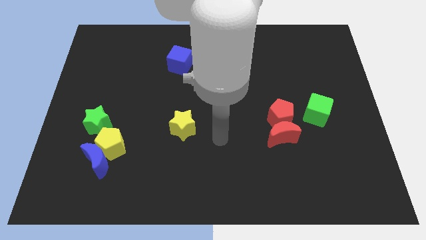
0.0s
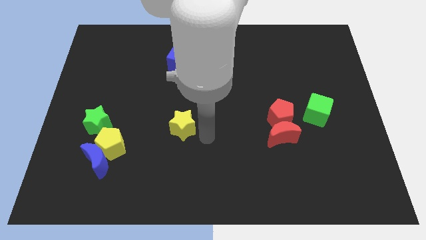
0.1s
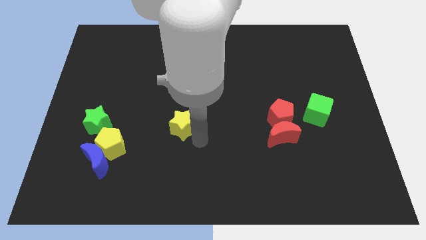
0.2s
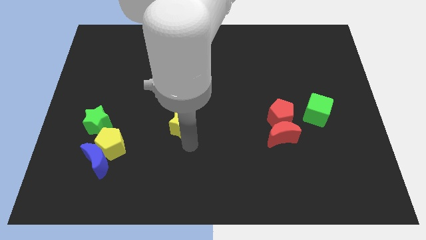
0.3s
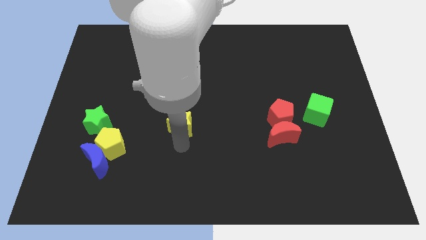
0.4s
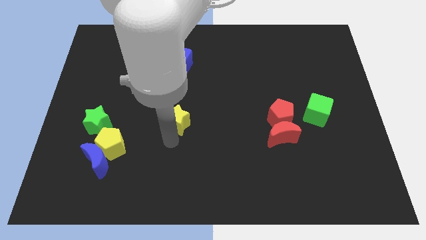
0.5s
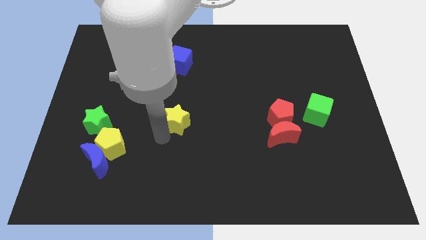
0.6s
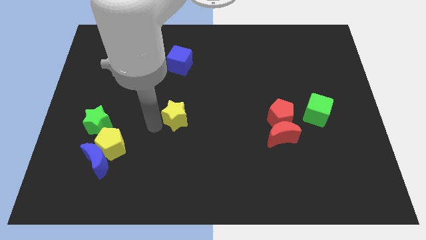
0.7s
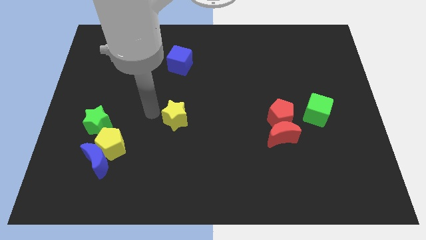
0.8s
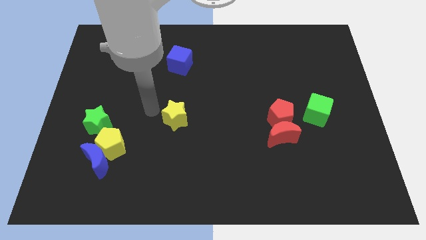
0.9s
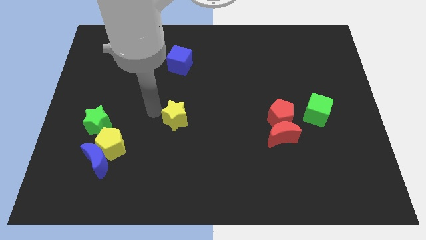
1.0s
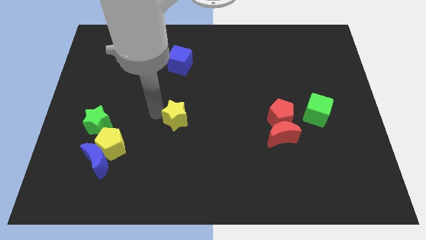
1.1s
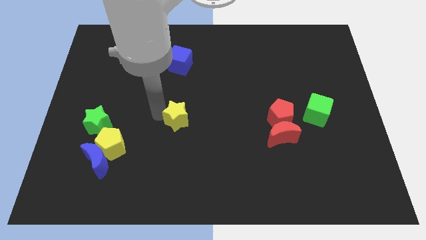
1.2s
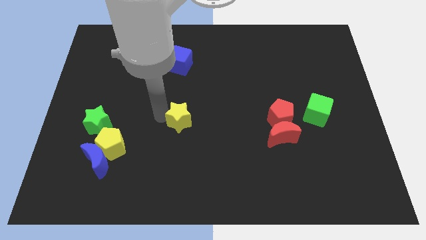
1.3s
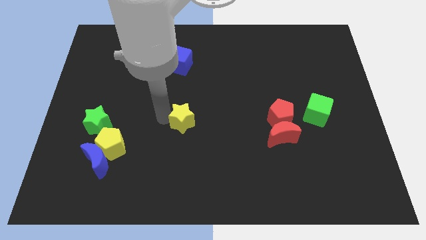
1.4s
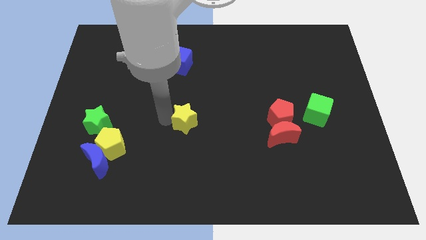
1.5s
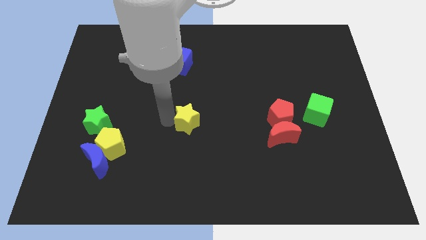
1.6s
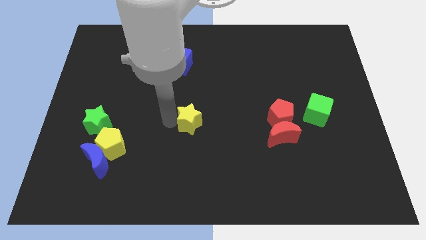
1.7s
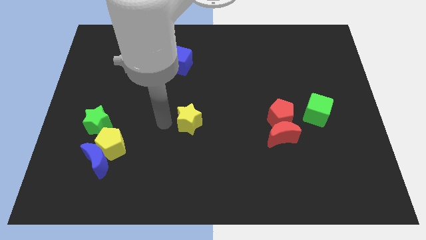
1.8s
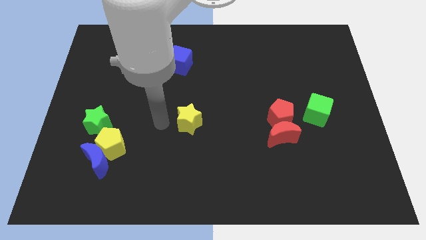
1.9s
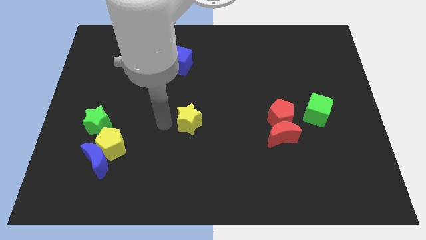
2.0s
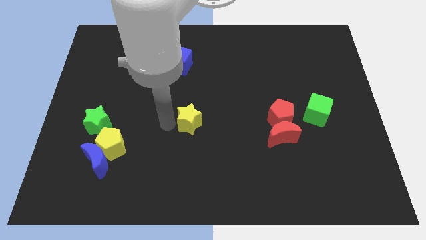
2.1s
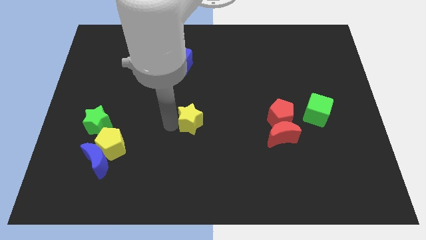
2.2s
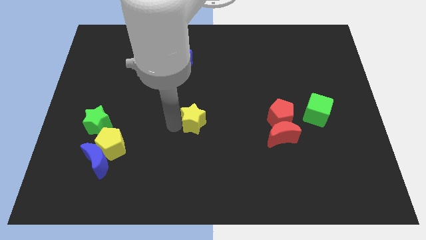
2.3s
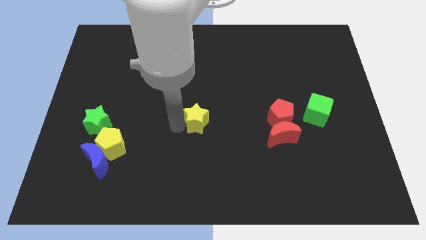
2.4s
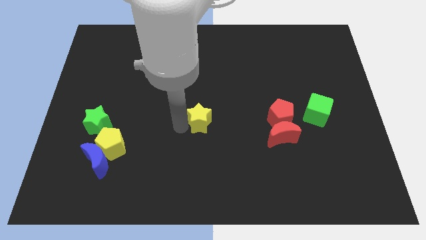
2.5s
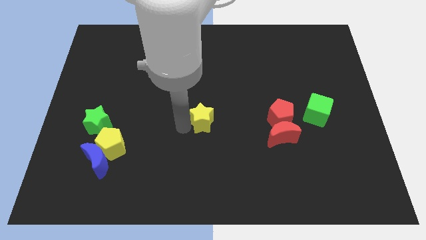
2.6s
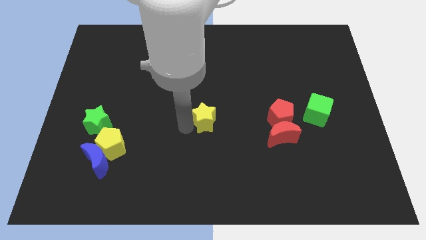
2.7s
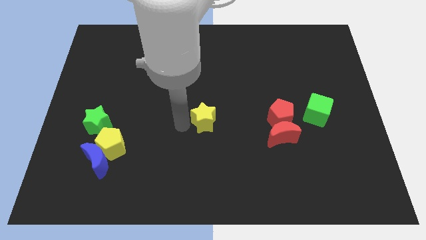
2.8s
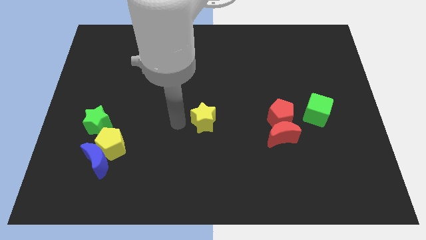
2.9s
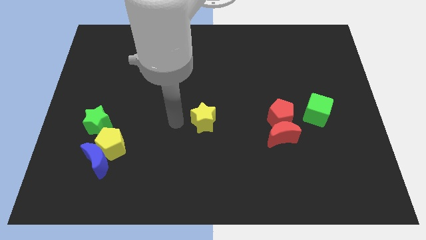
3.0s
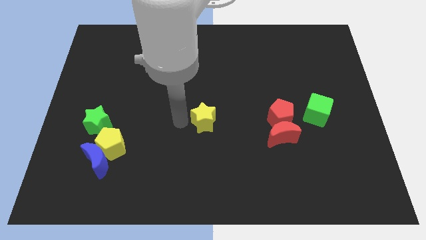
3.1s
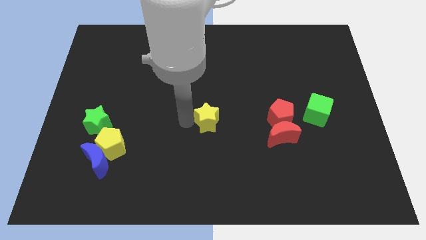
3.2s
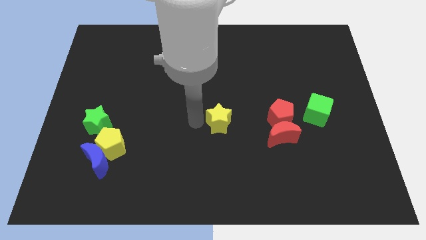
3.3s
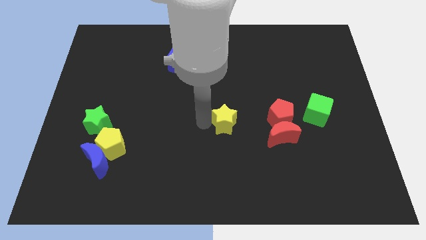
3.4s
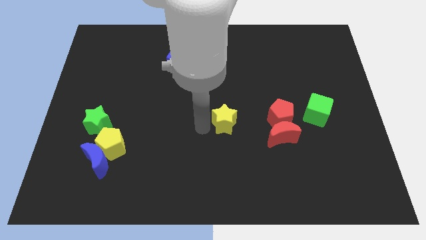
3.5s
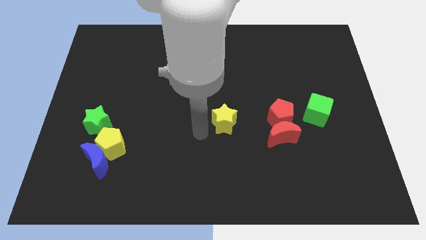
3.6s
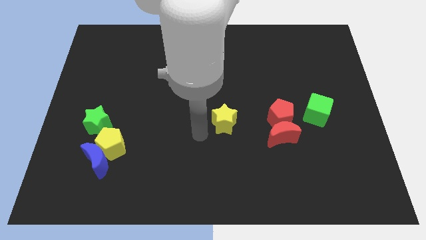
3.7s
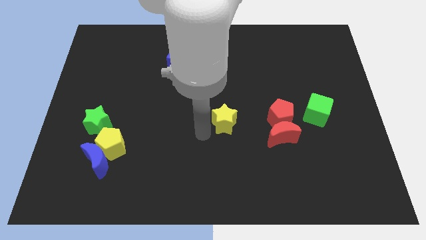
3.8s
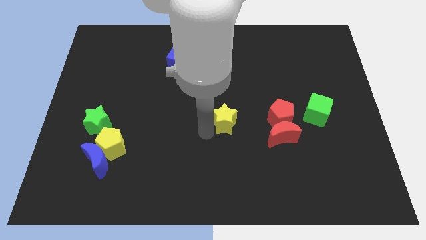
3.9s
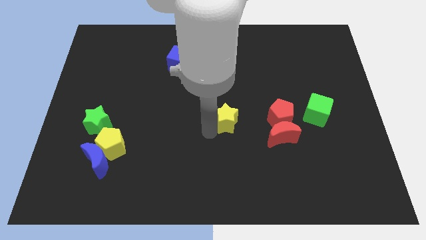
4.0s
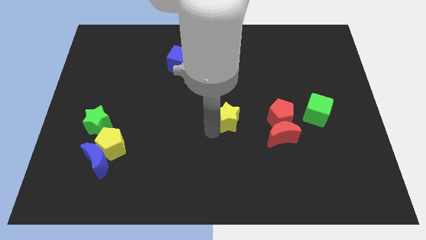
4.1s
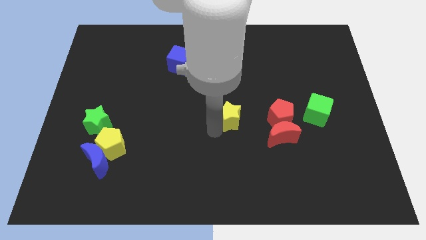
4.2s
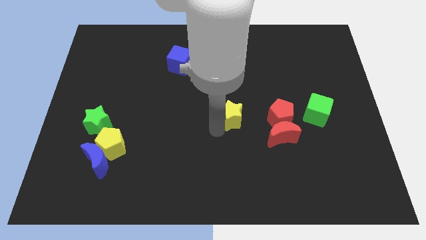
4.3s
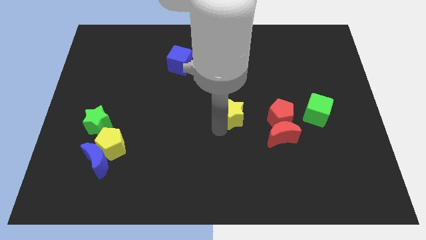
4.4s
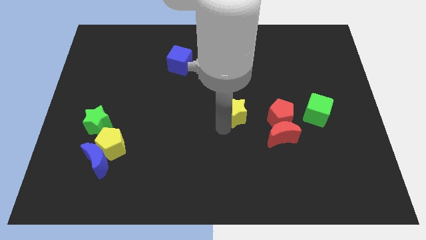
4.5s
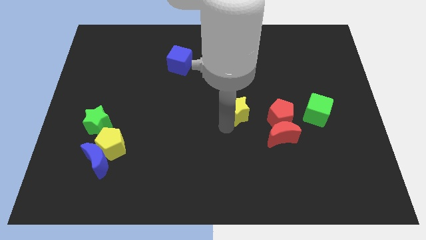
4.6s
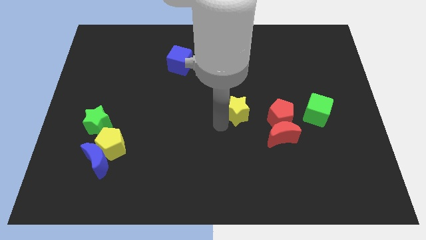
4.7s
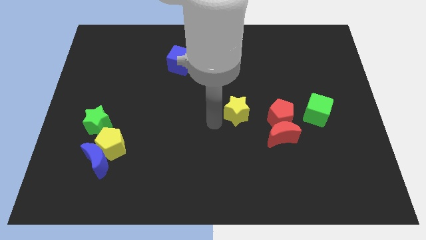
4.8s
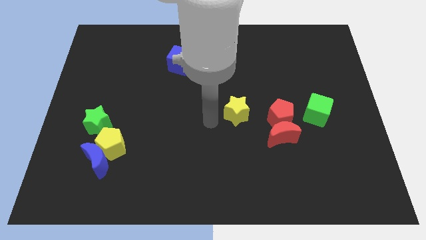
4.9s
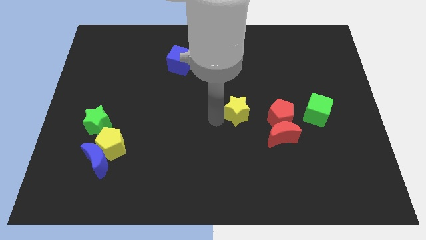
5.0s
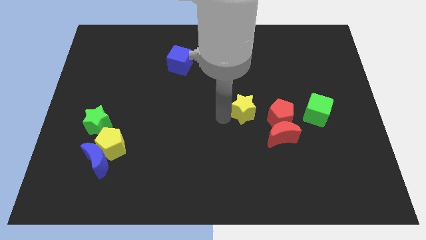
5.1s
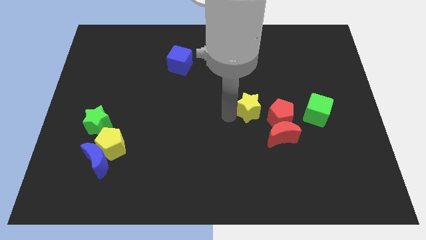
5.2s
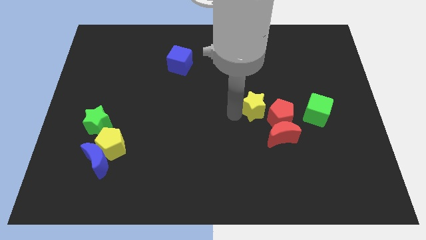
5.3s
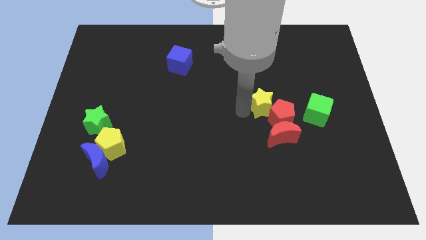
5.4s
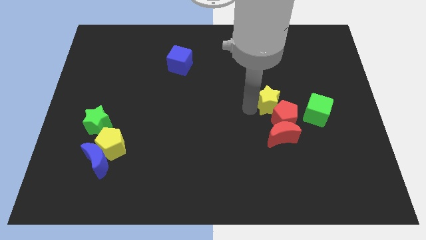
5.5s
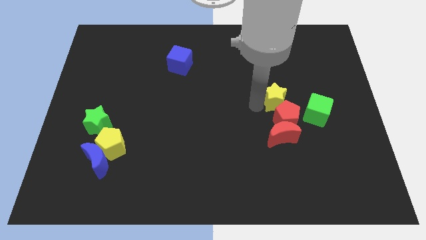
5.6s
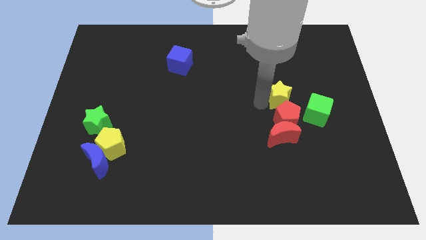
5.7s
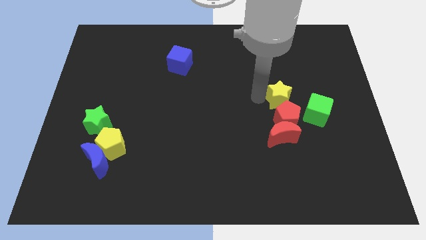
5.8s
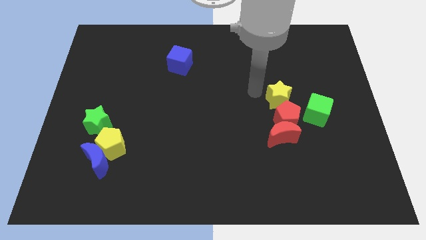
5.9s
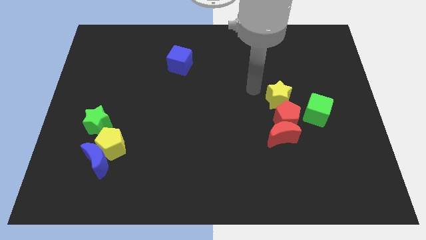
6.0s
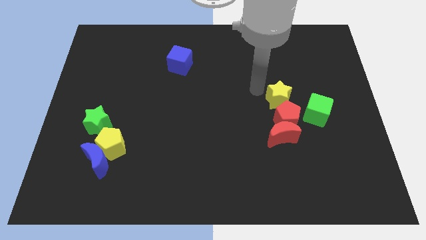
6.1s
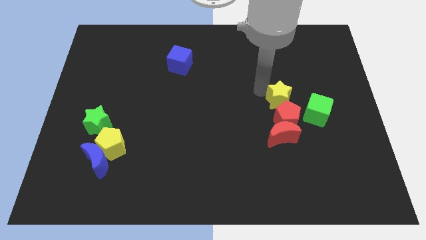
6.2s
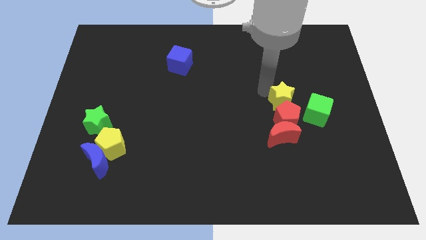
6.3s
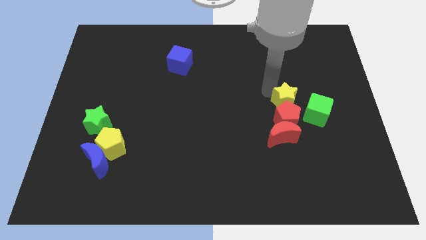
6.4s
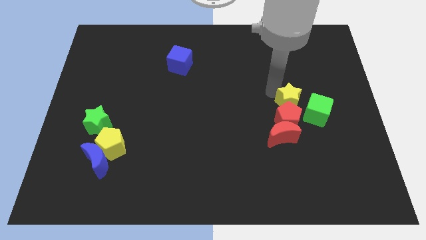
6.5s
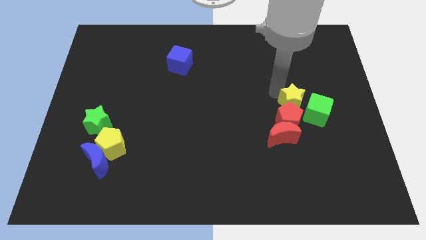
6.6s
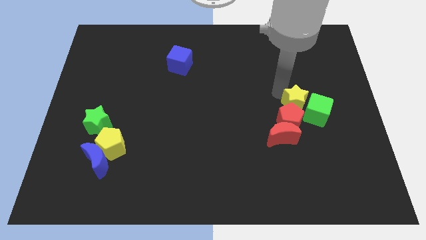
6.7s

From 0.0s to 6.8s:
move the yellow star towards the green cube

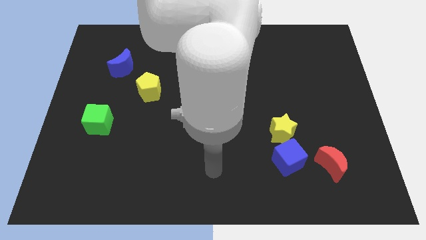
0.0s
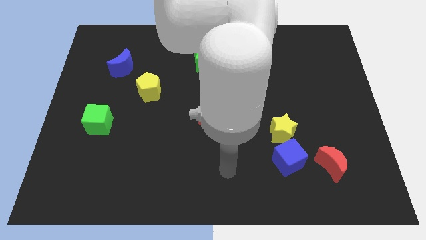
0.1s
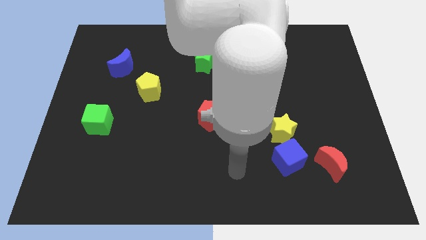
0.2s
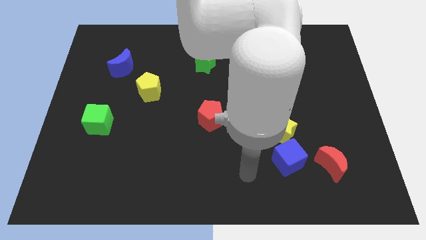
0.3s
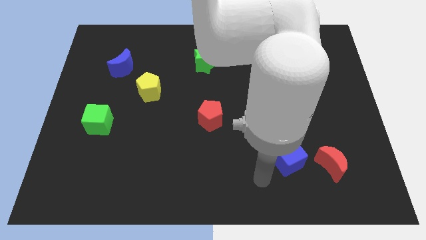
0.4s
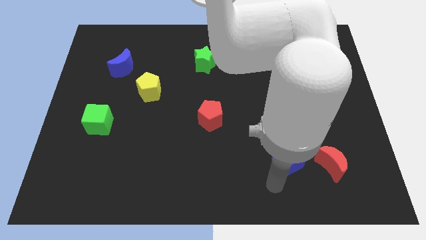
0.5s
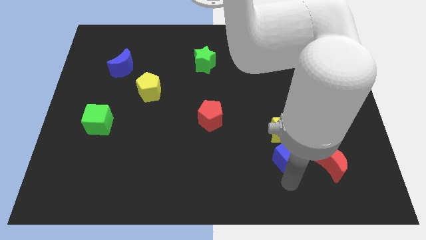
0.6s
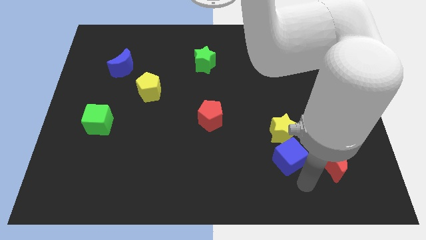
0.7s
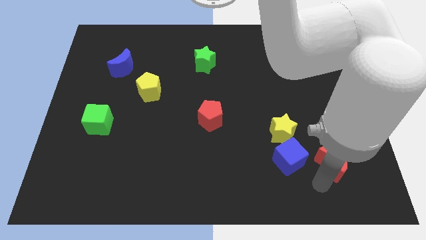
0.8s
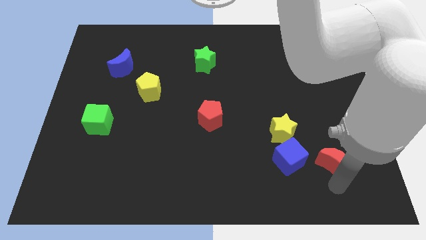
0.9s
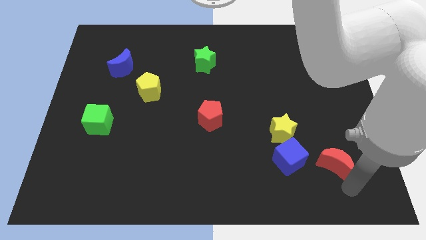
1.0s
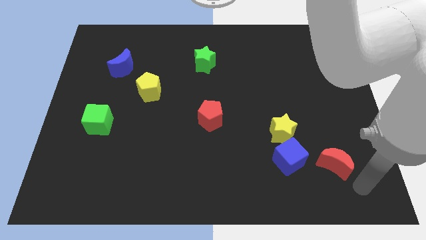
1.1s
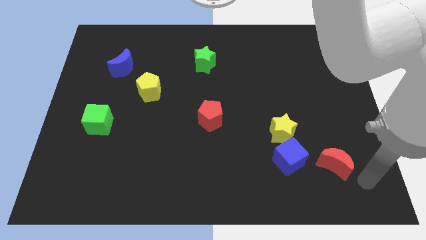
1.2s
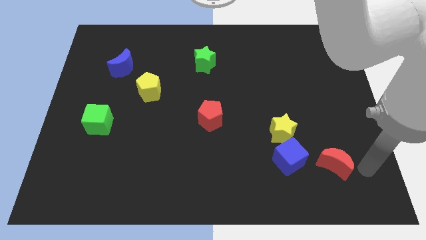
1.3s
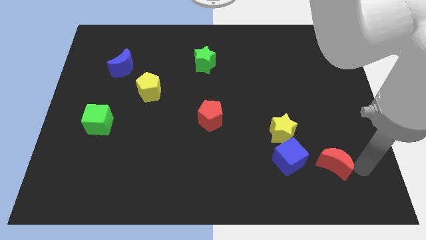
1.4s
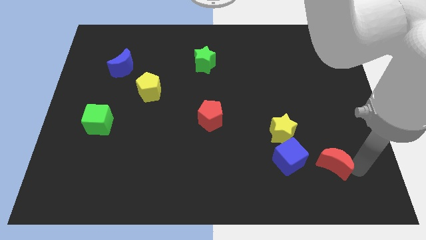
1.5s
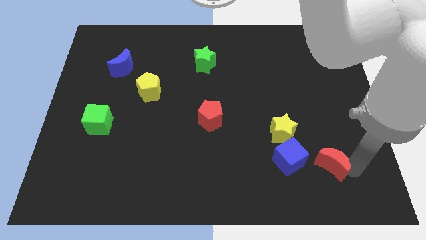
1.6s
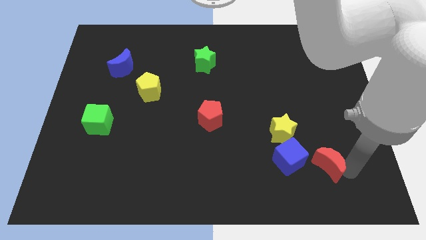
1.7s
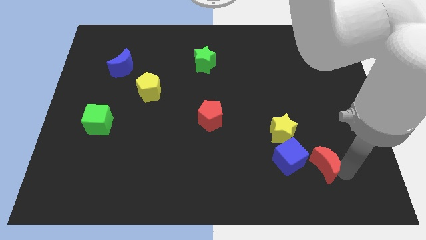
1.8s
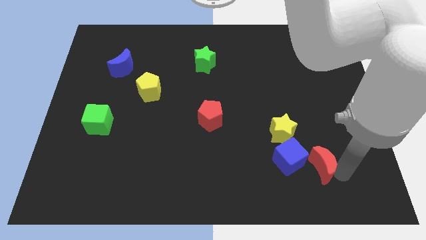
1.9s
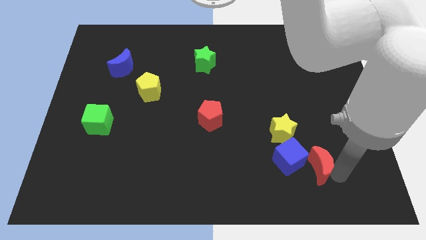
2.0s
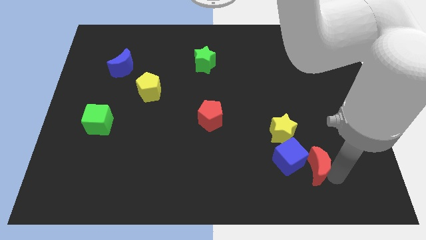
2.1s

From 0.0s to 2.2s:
slide the red moon to the blue cube
